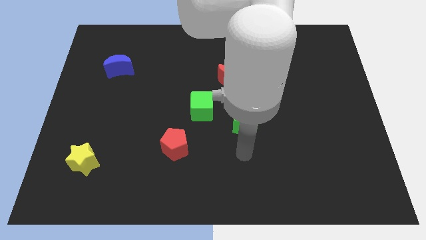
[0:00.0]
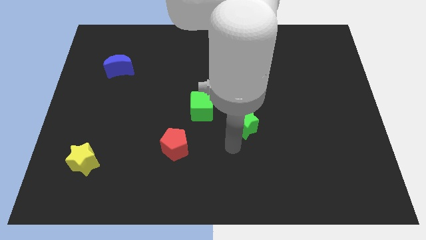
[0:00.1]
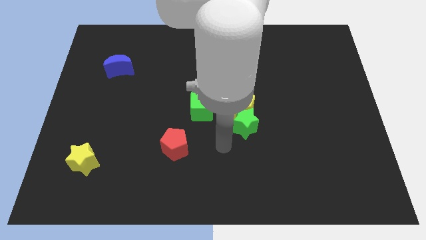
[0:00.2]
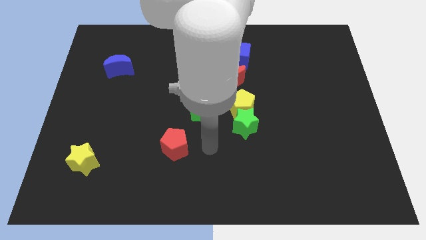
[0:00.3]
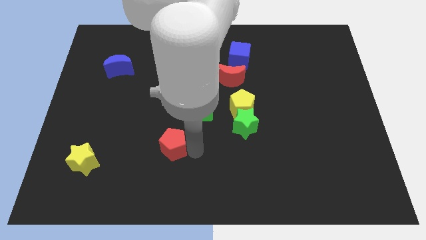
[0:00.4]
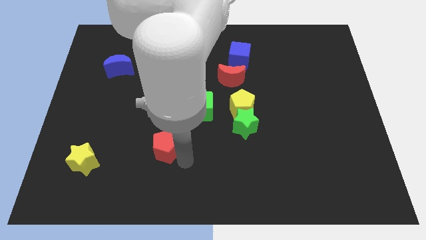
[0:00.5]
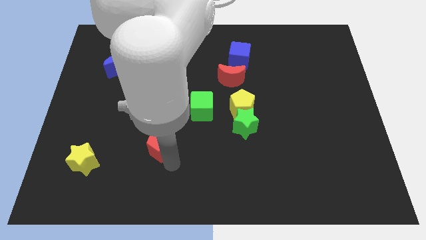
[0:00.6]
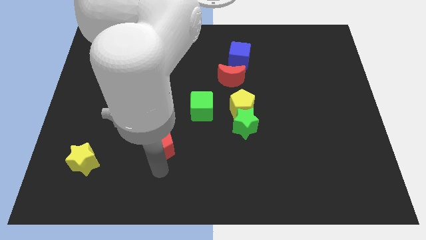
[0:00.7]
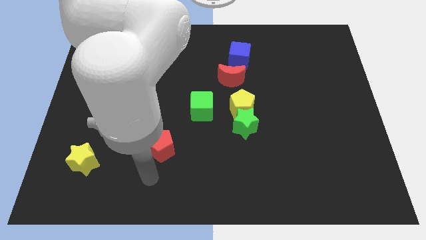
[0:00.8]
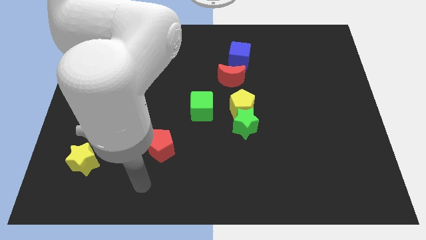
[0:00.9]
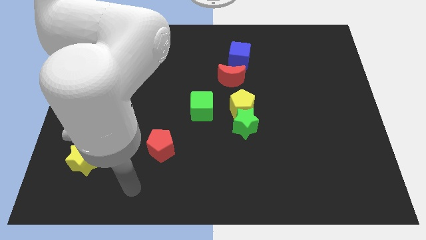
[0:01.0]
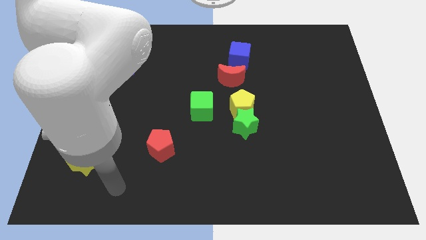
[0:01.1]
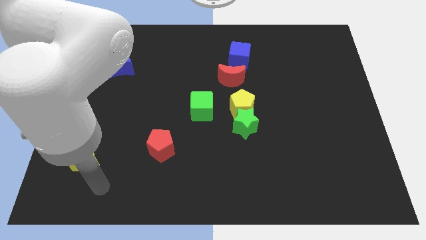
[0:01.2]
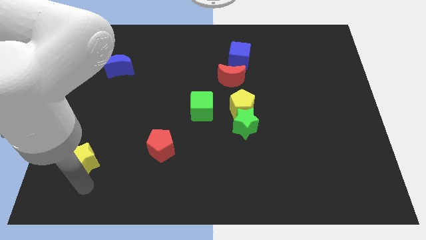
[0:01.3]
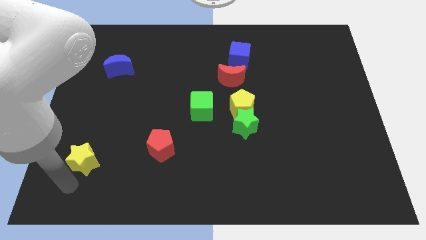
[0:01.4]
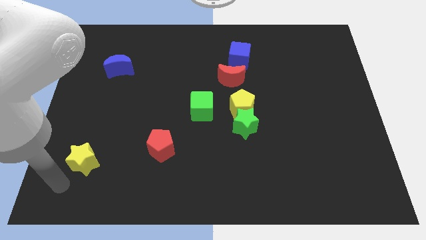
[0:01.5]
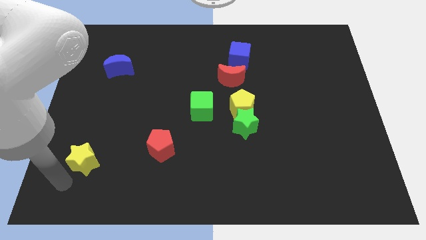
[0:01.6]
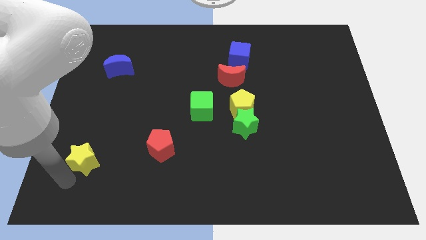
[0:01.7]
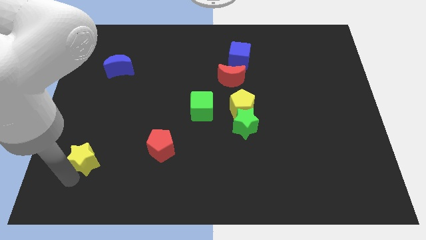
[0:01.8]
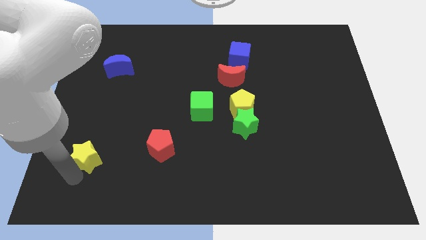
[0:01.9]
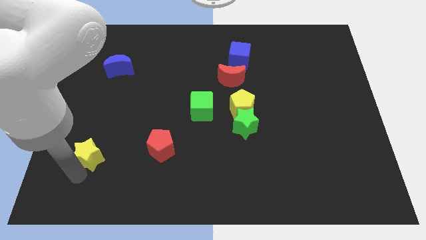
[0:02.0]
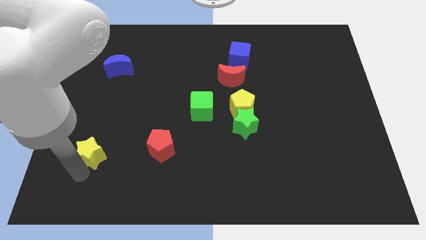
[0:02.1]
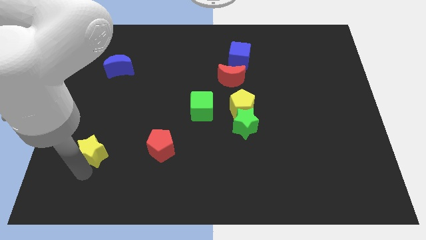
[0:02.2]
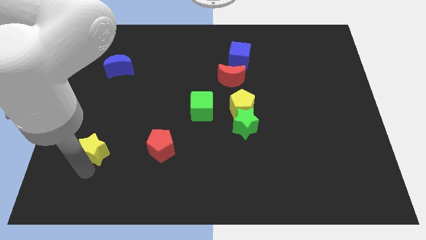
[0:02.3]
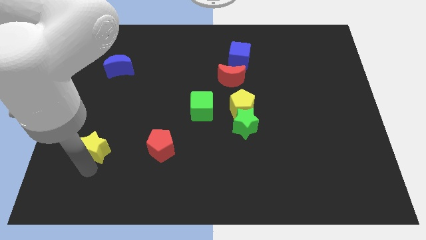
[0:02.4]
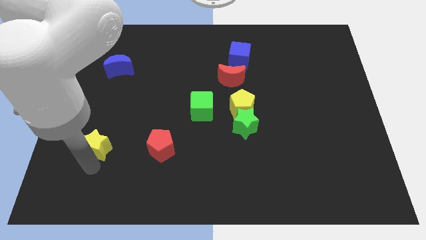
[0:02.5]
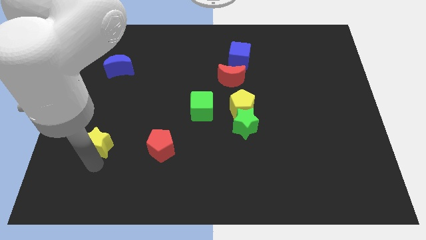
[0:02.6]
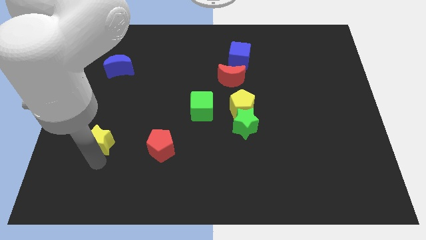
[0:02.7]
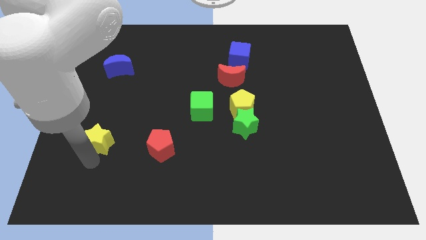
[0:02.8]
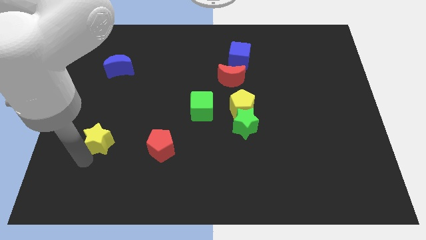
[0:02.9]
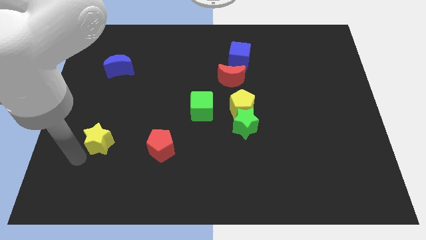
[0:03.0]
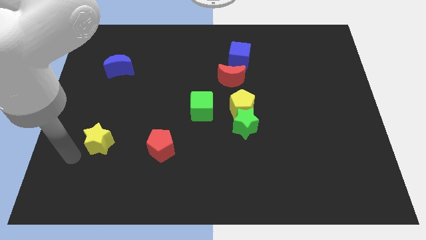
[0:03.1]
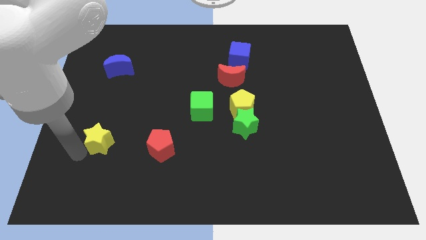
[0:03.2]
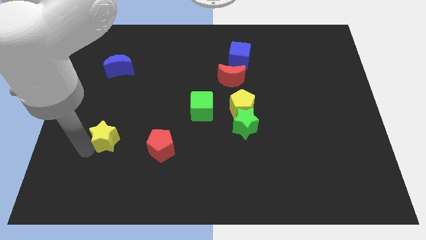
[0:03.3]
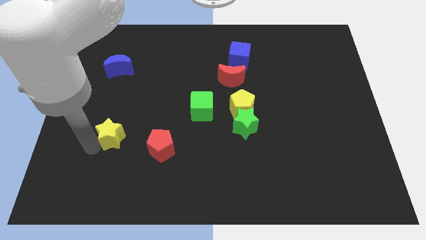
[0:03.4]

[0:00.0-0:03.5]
push the yellow star upwards and then to the right a bit

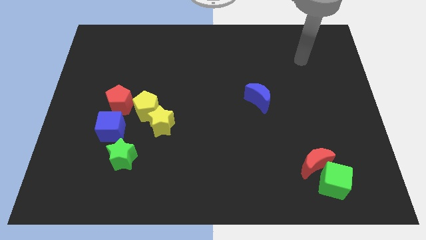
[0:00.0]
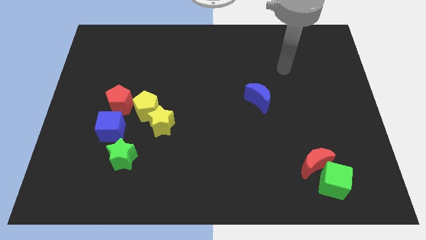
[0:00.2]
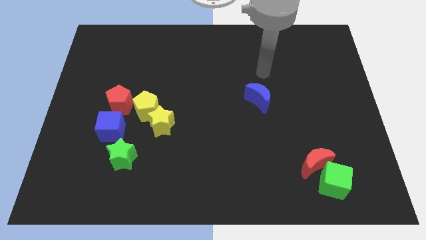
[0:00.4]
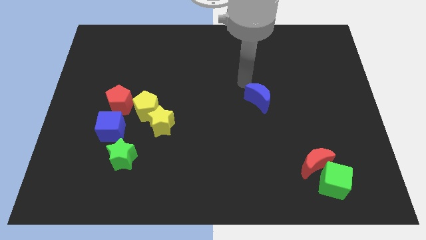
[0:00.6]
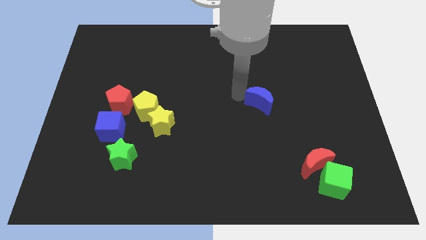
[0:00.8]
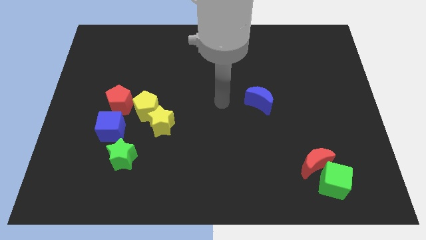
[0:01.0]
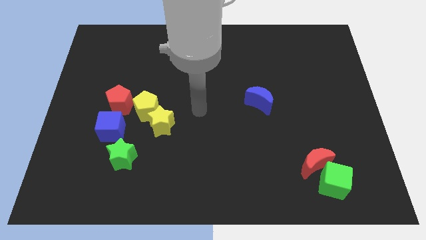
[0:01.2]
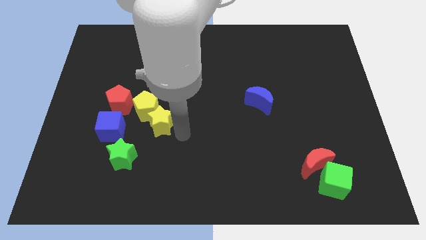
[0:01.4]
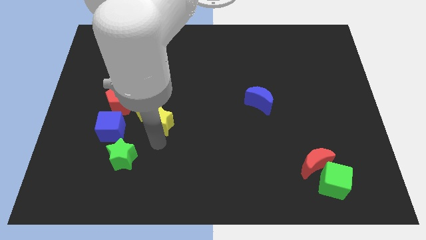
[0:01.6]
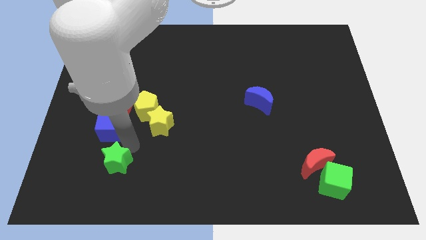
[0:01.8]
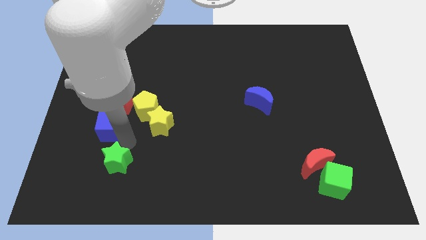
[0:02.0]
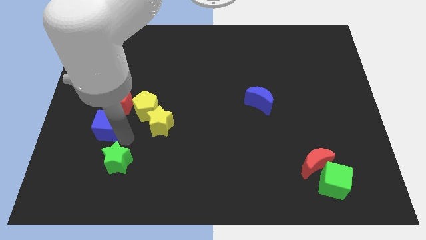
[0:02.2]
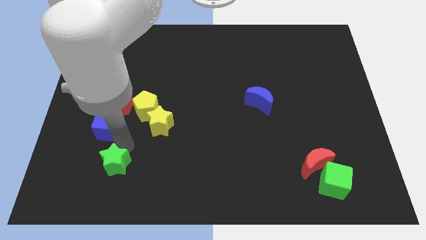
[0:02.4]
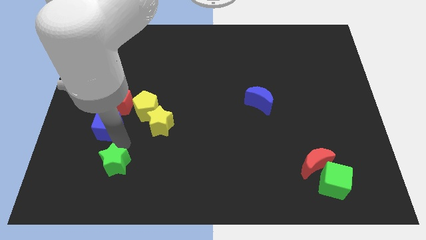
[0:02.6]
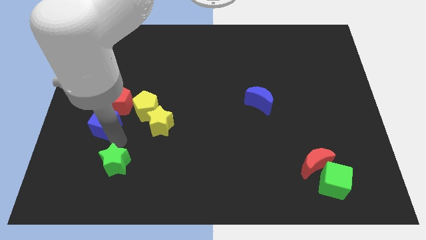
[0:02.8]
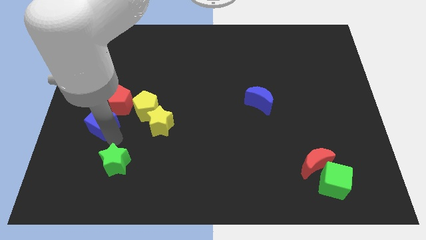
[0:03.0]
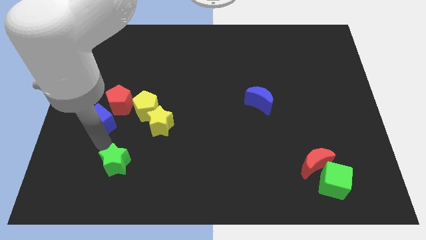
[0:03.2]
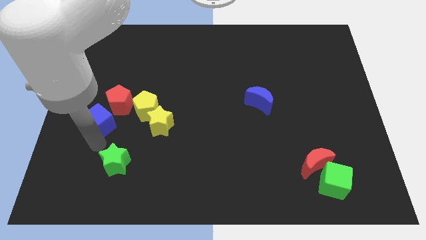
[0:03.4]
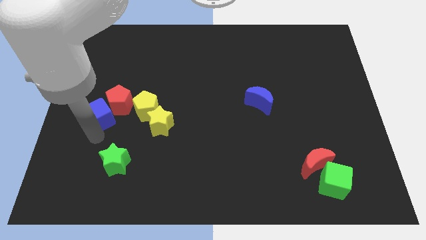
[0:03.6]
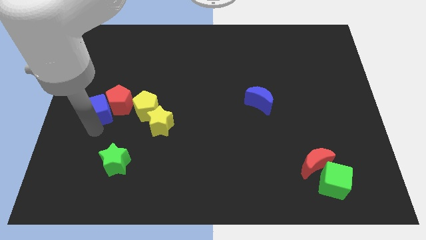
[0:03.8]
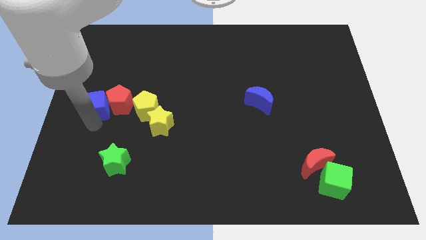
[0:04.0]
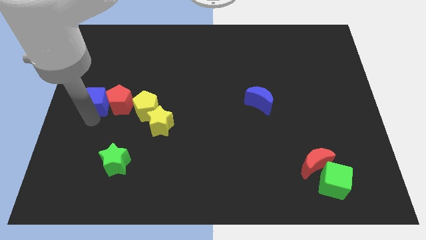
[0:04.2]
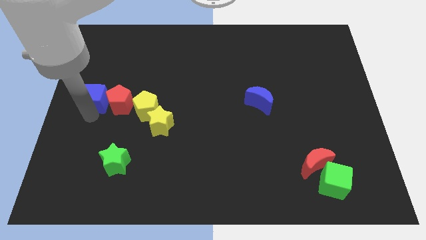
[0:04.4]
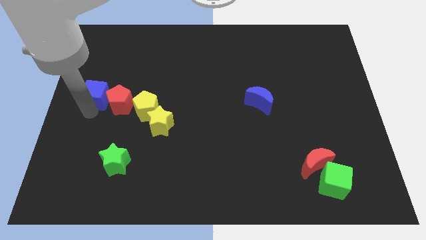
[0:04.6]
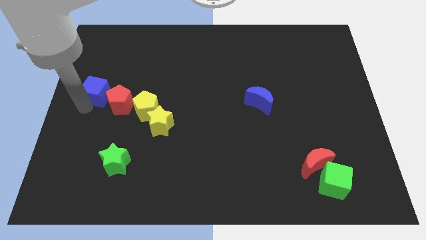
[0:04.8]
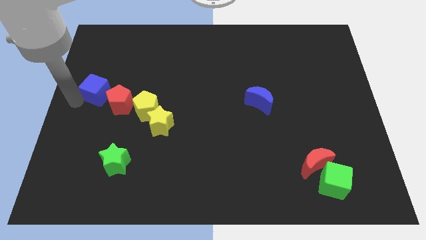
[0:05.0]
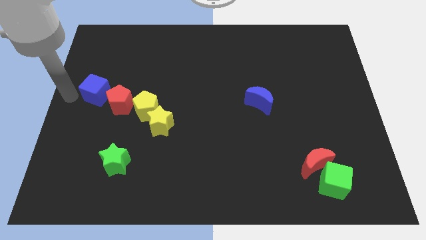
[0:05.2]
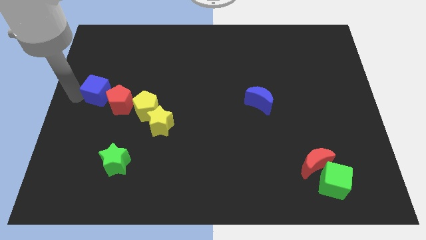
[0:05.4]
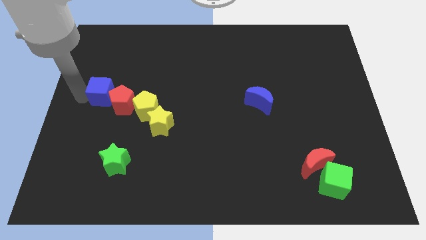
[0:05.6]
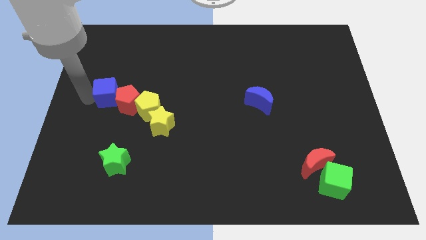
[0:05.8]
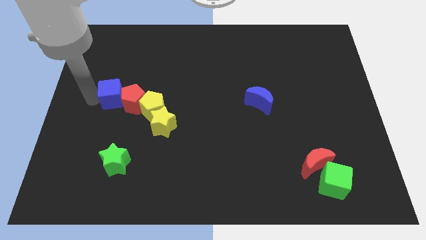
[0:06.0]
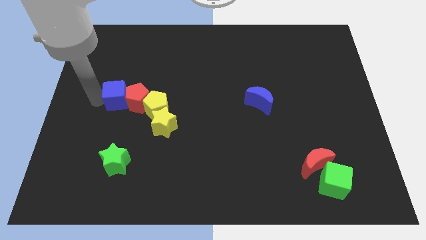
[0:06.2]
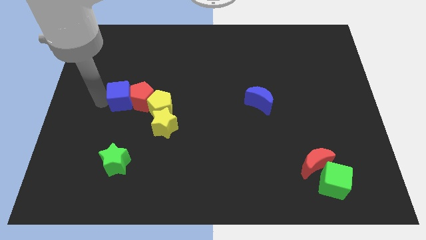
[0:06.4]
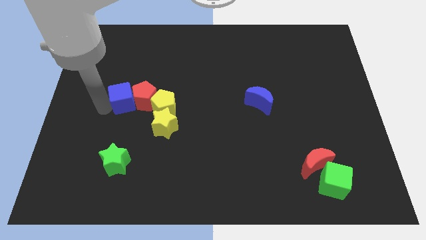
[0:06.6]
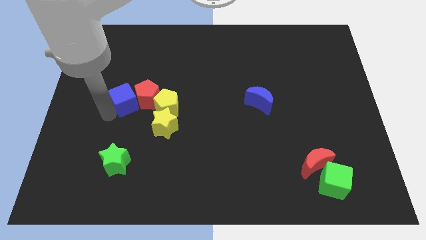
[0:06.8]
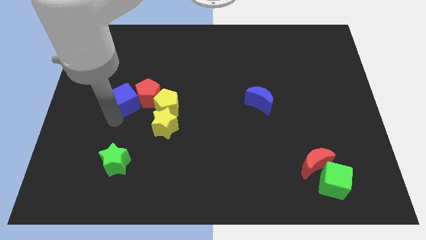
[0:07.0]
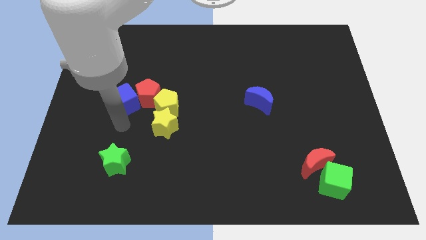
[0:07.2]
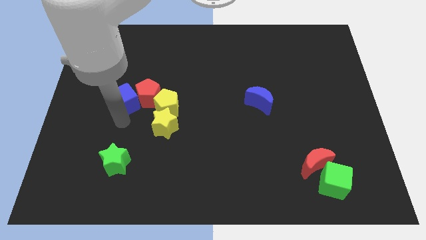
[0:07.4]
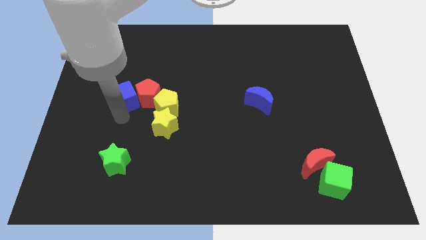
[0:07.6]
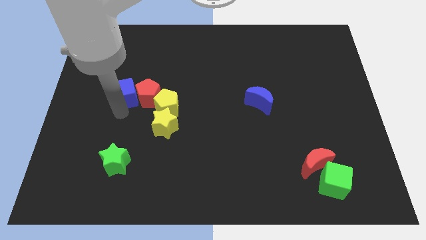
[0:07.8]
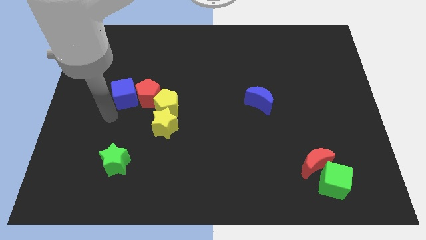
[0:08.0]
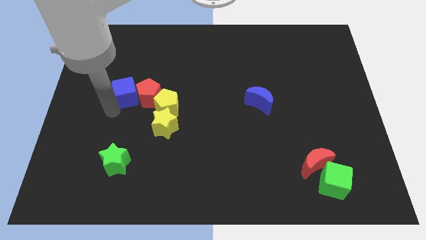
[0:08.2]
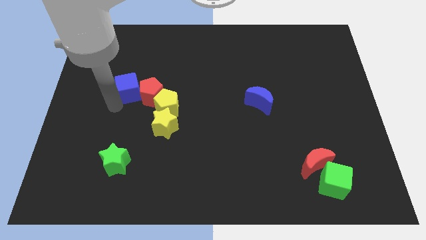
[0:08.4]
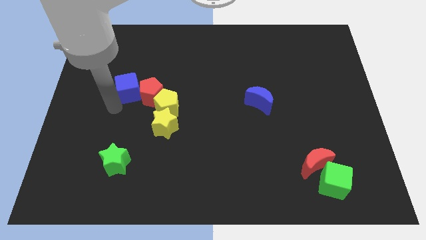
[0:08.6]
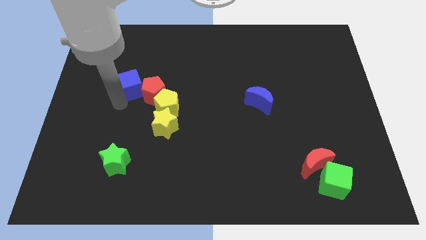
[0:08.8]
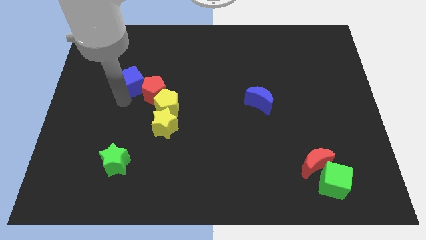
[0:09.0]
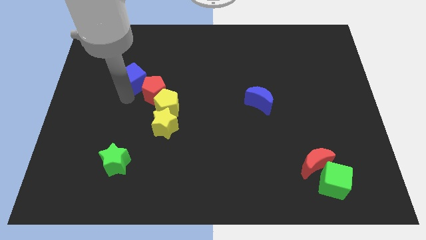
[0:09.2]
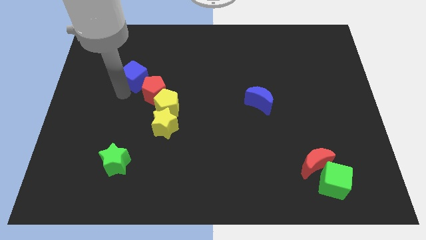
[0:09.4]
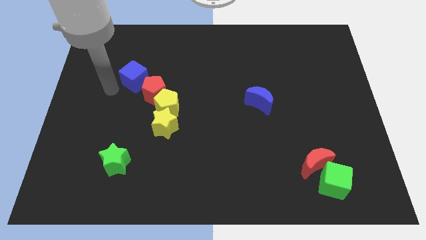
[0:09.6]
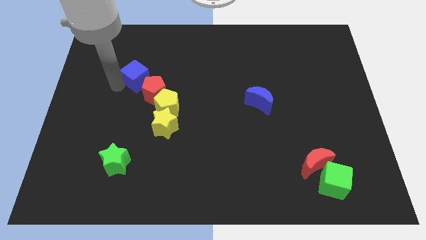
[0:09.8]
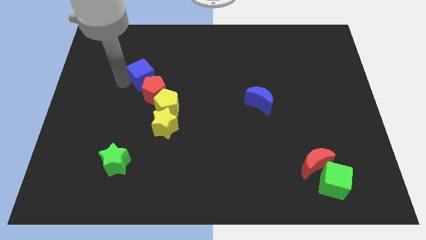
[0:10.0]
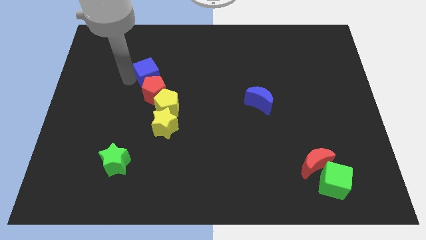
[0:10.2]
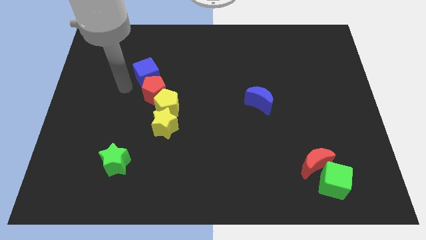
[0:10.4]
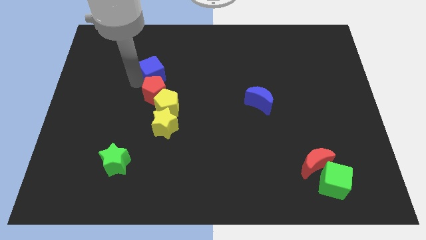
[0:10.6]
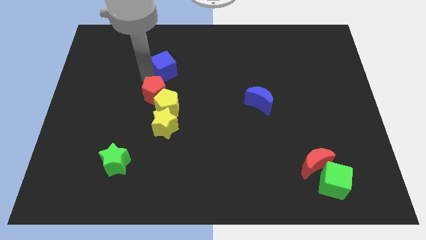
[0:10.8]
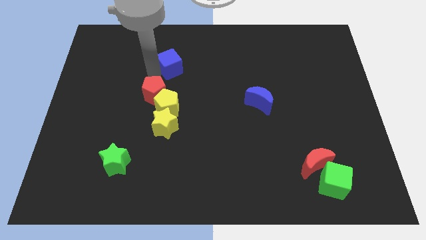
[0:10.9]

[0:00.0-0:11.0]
slide the blue cube upwards and then right
